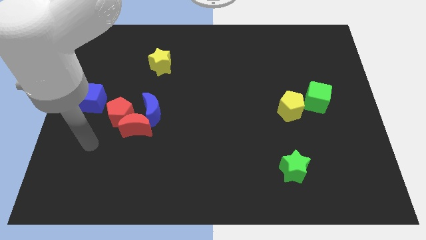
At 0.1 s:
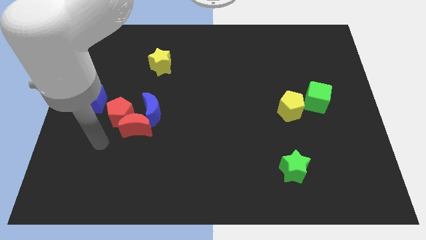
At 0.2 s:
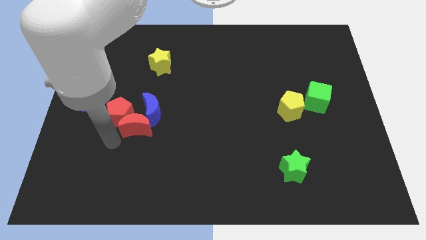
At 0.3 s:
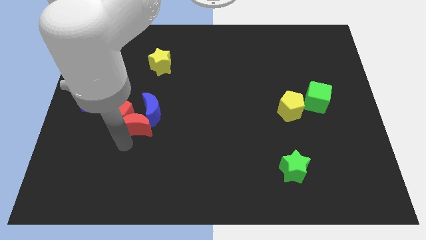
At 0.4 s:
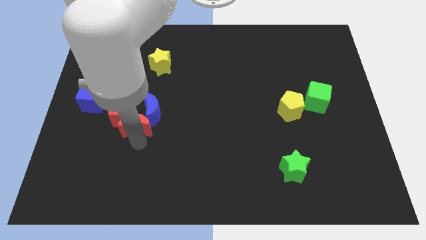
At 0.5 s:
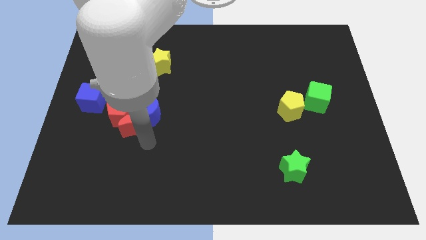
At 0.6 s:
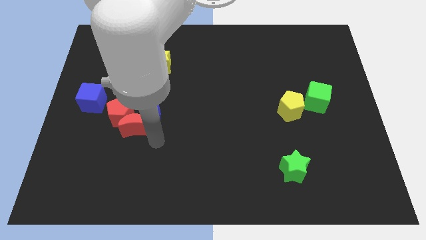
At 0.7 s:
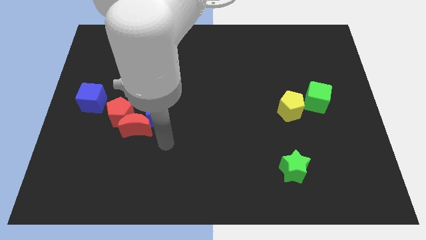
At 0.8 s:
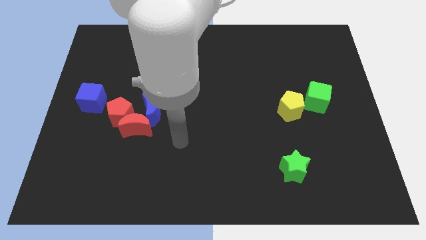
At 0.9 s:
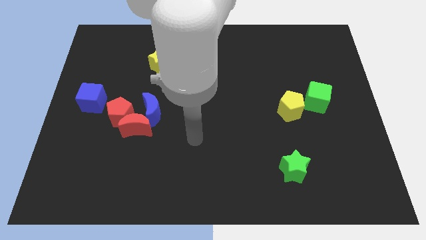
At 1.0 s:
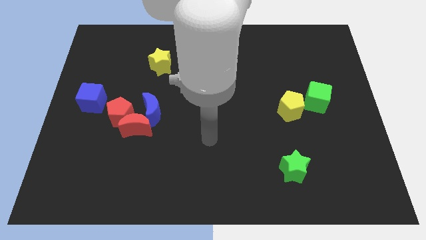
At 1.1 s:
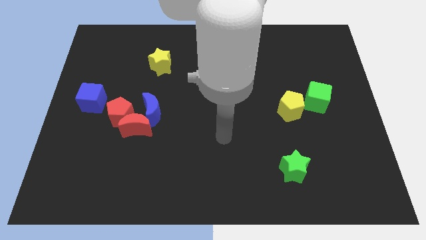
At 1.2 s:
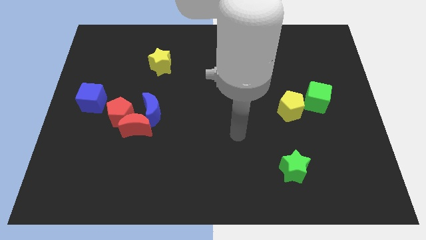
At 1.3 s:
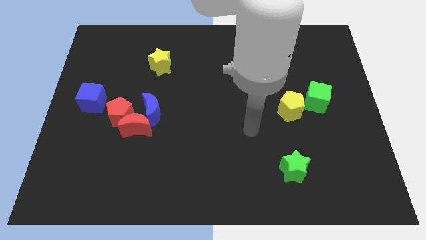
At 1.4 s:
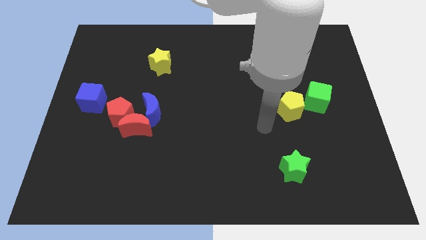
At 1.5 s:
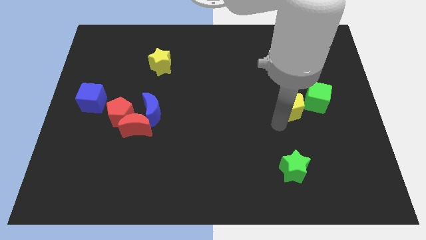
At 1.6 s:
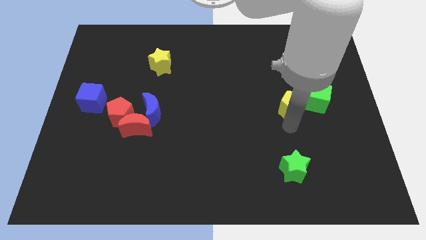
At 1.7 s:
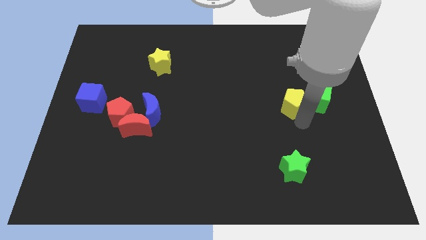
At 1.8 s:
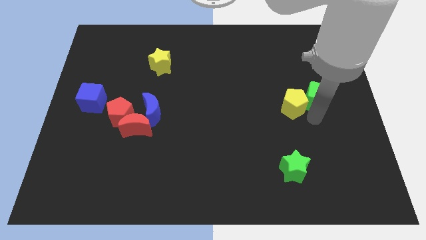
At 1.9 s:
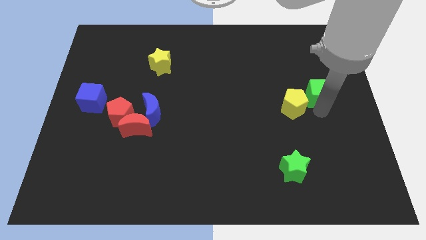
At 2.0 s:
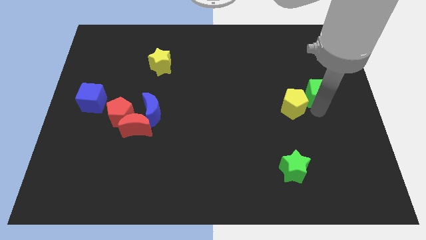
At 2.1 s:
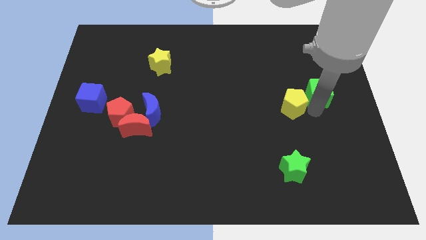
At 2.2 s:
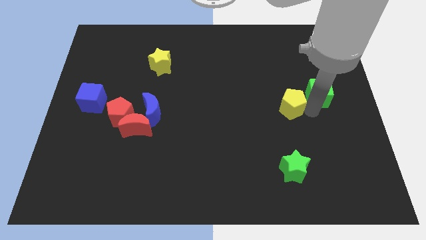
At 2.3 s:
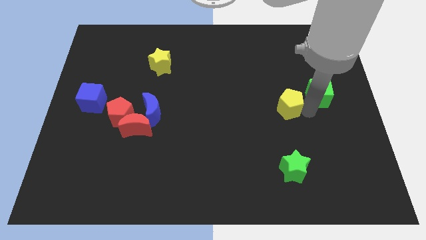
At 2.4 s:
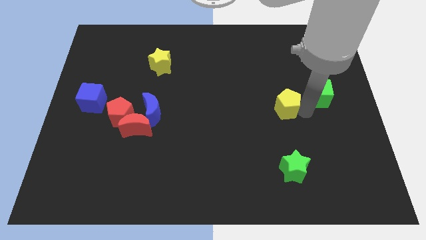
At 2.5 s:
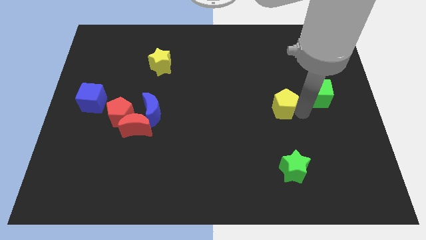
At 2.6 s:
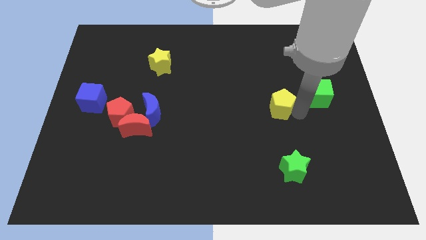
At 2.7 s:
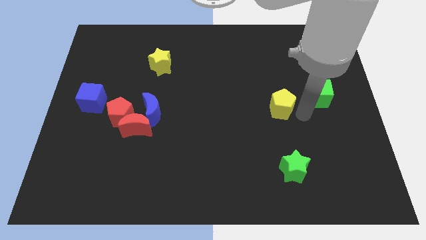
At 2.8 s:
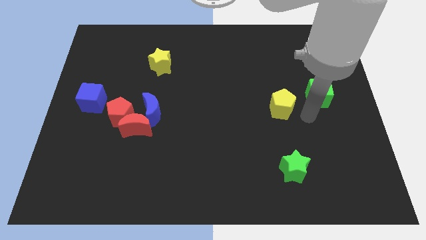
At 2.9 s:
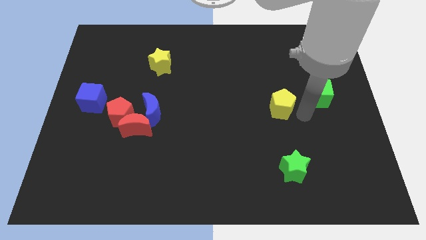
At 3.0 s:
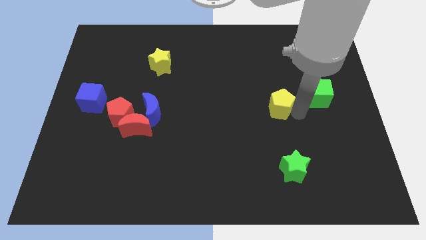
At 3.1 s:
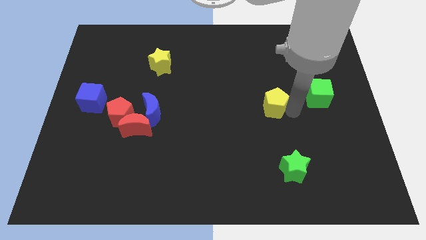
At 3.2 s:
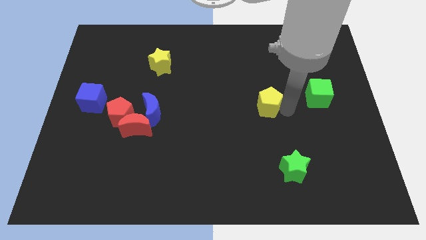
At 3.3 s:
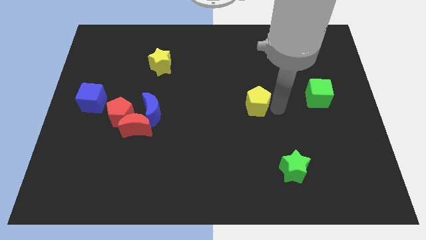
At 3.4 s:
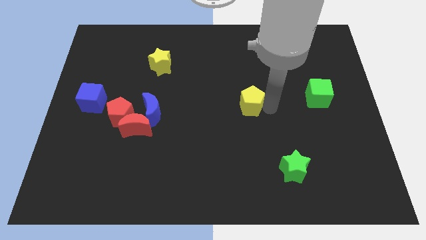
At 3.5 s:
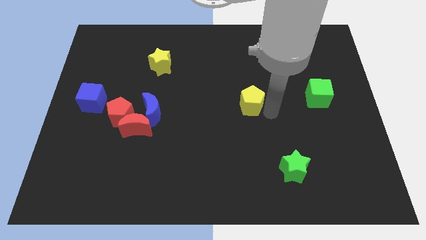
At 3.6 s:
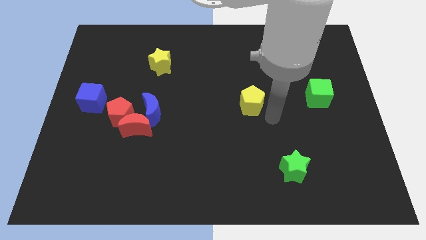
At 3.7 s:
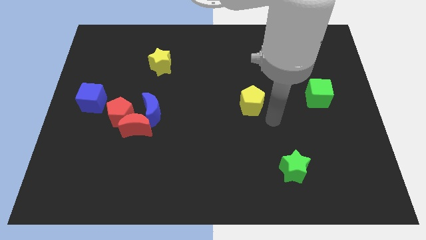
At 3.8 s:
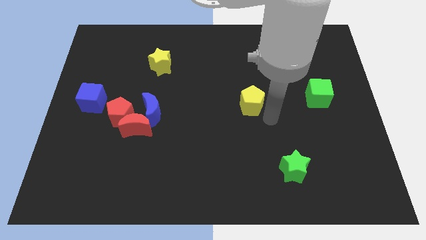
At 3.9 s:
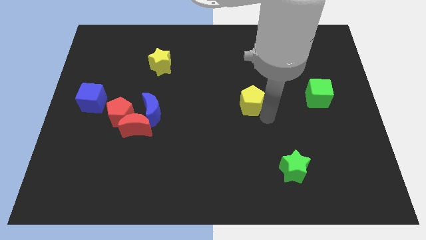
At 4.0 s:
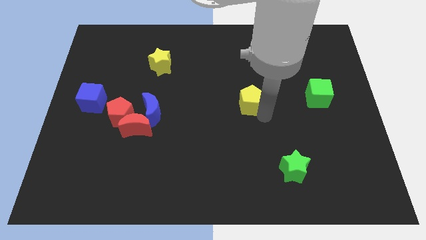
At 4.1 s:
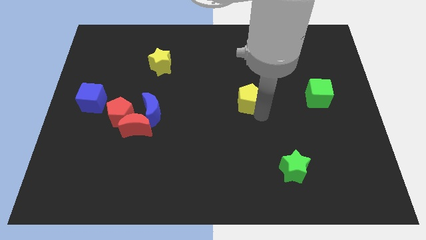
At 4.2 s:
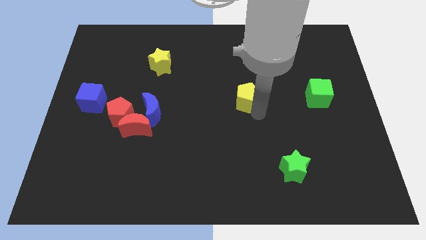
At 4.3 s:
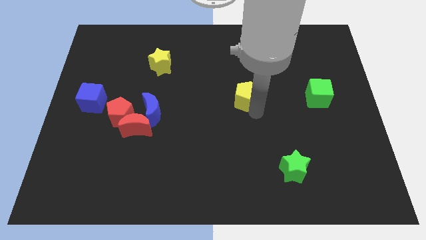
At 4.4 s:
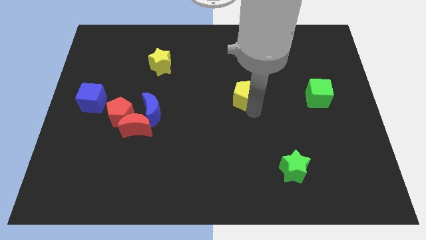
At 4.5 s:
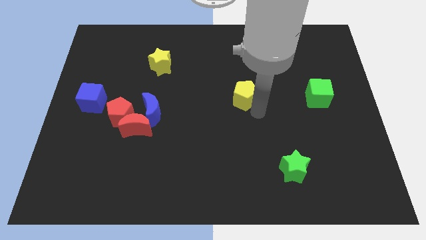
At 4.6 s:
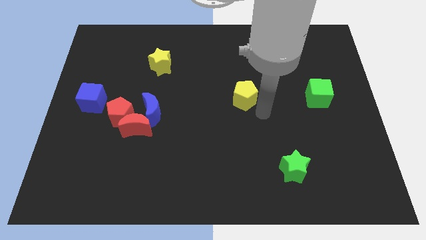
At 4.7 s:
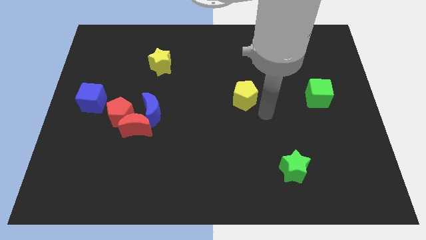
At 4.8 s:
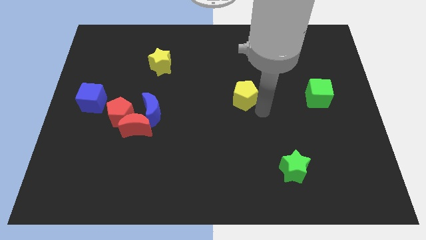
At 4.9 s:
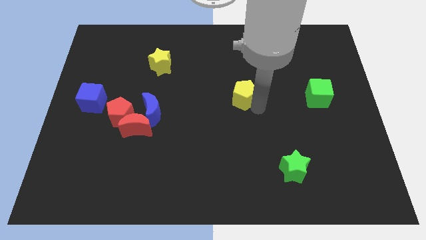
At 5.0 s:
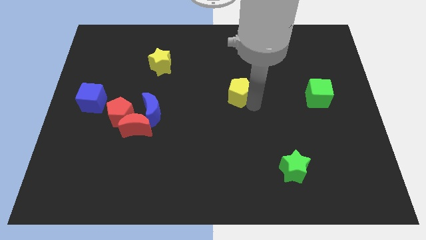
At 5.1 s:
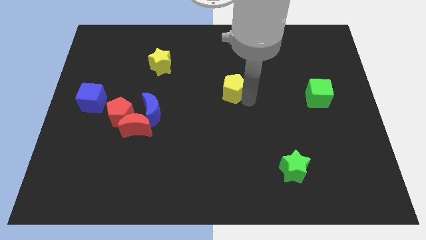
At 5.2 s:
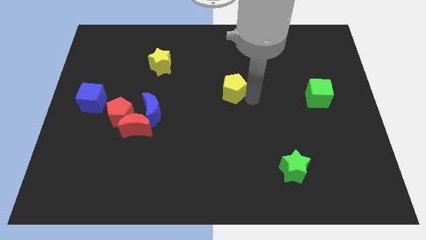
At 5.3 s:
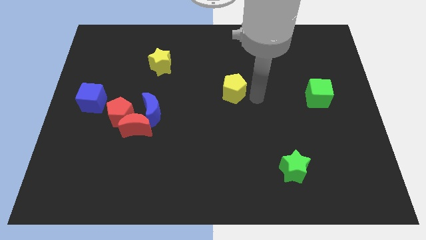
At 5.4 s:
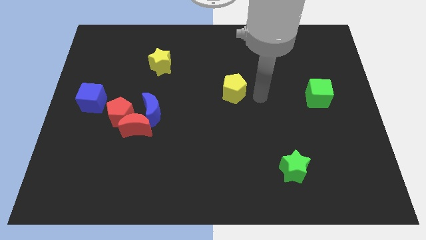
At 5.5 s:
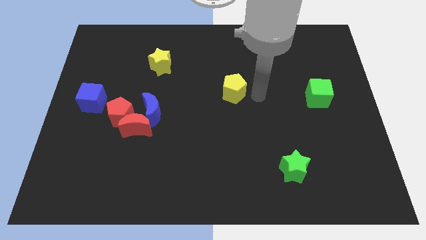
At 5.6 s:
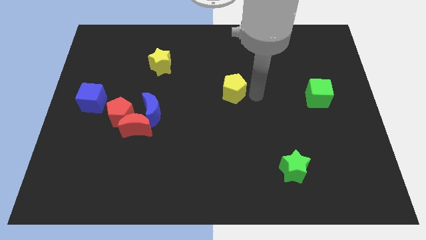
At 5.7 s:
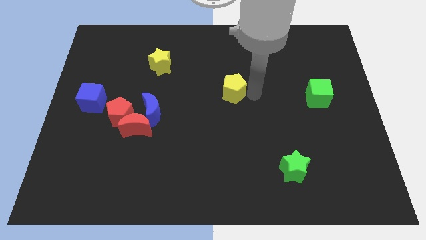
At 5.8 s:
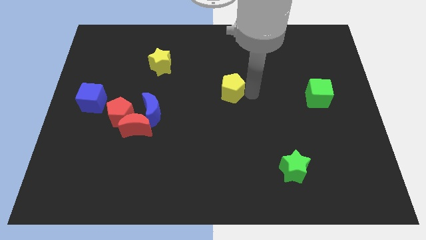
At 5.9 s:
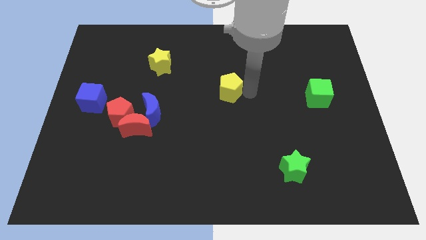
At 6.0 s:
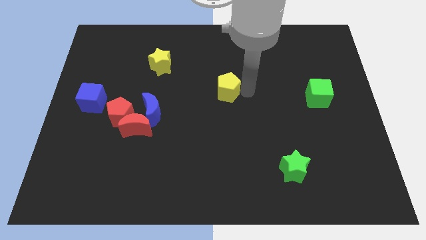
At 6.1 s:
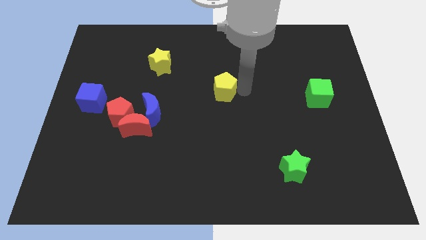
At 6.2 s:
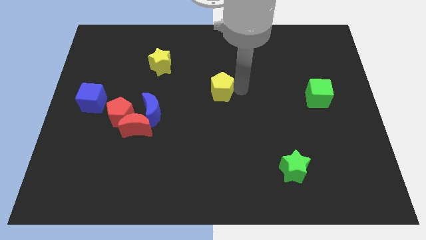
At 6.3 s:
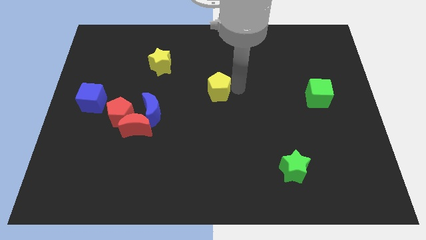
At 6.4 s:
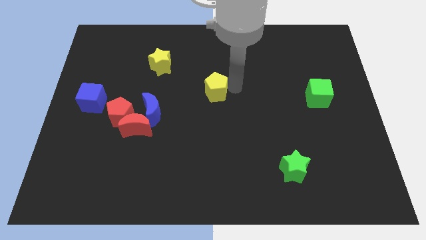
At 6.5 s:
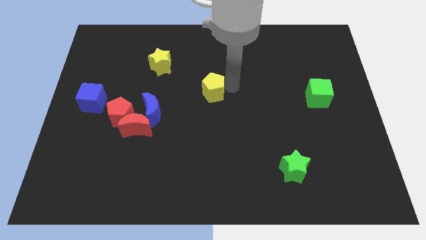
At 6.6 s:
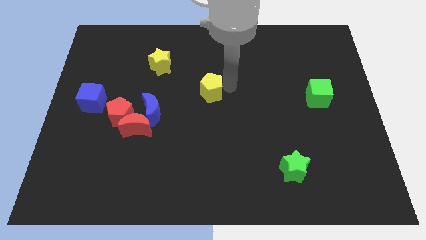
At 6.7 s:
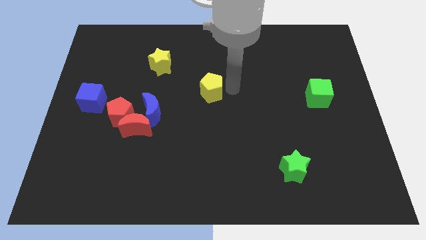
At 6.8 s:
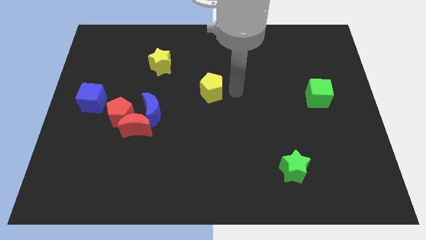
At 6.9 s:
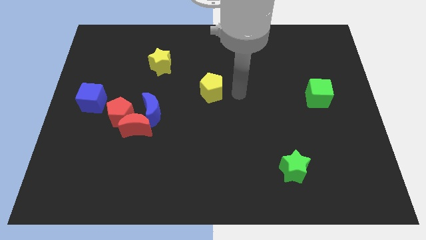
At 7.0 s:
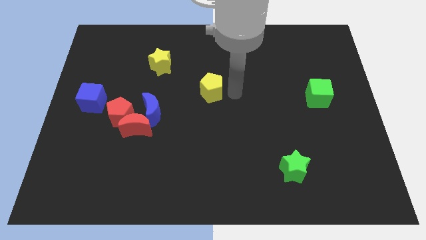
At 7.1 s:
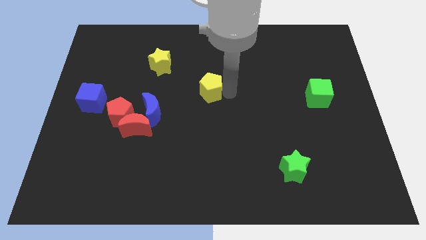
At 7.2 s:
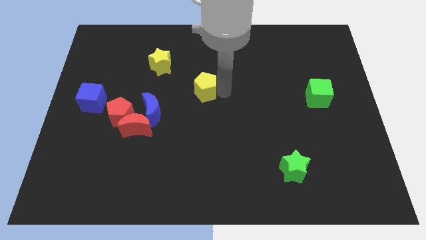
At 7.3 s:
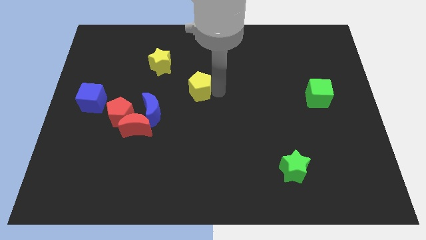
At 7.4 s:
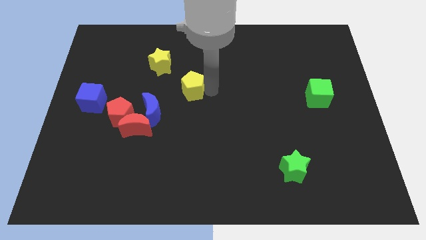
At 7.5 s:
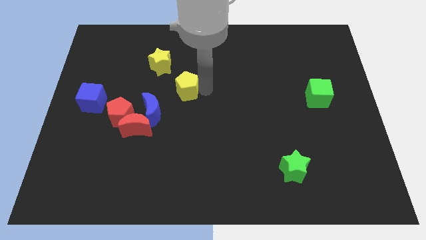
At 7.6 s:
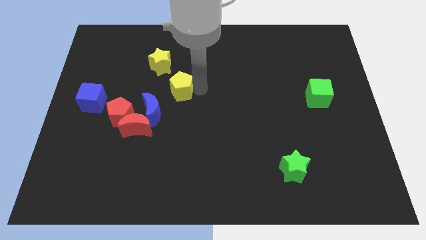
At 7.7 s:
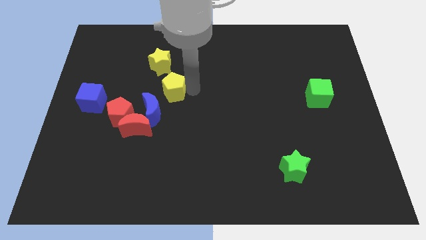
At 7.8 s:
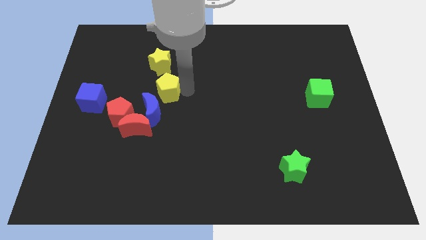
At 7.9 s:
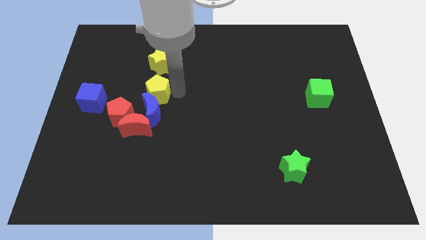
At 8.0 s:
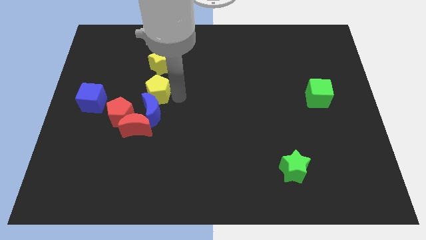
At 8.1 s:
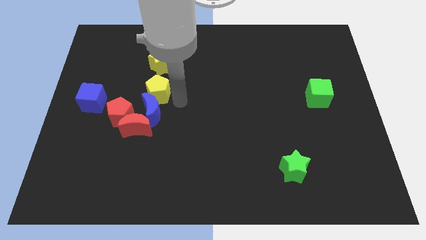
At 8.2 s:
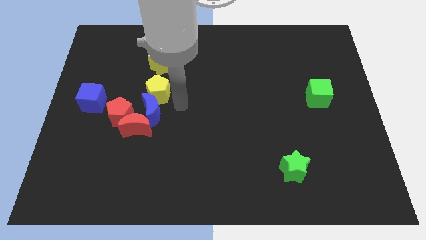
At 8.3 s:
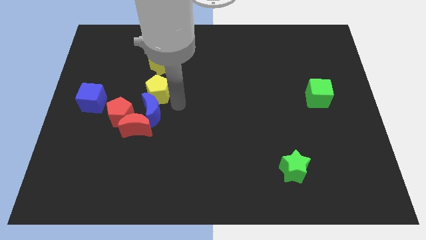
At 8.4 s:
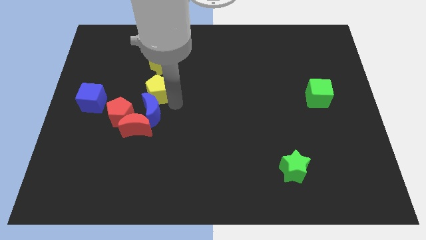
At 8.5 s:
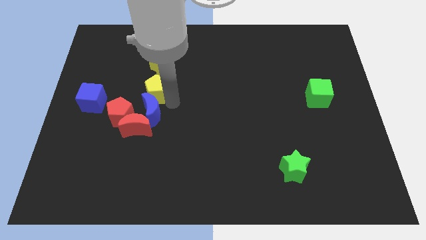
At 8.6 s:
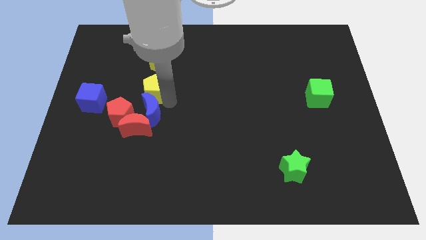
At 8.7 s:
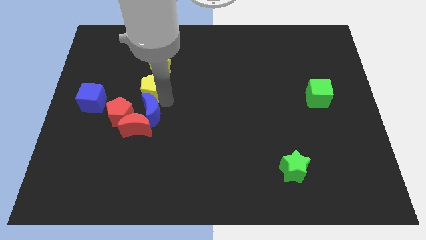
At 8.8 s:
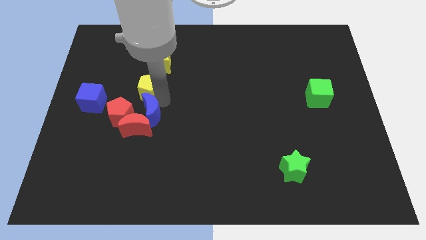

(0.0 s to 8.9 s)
push the yellow pentagon to the bottom left of the yellow star
